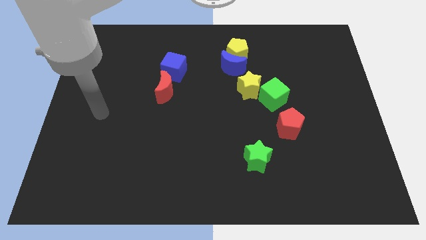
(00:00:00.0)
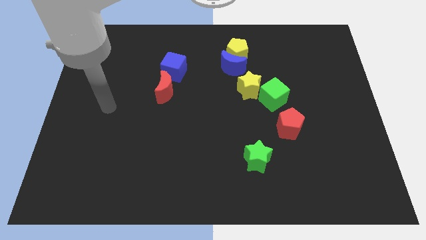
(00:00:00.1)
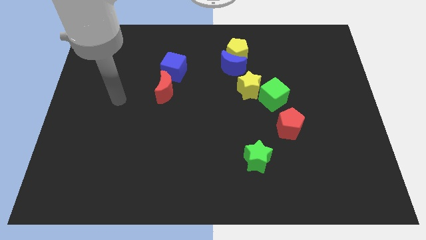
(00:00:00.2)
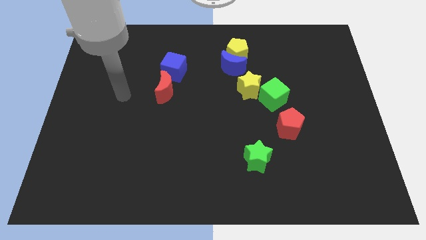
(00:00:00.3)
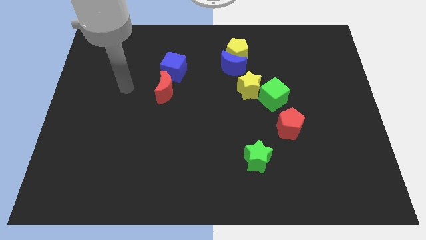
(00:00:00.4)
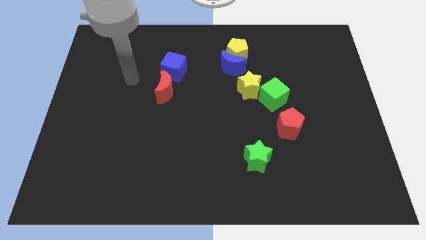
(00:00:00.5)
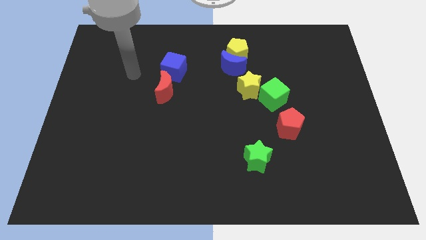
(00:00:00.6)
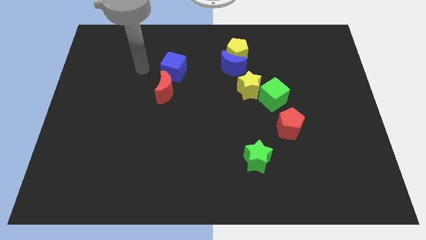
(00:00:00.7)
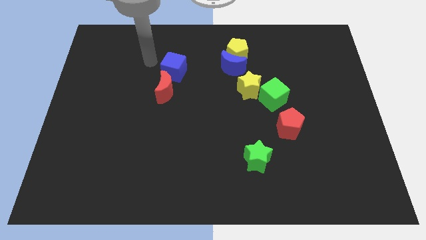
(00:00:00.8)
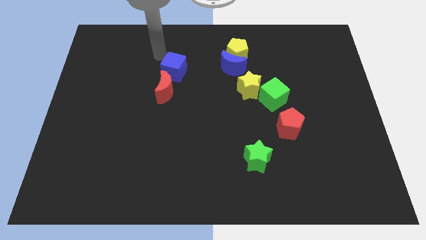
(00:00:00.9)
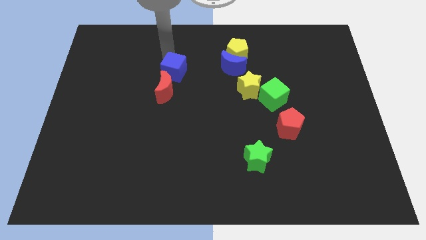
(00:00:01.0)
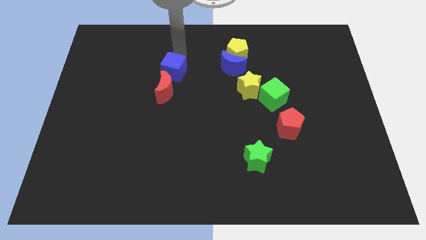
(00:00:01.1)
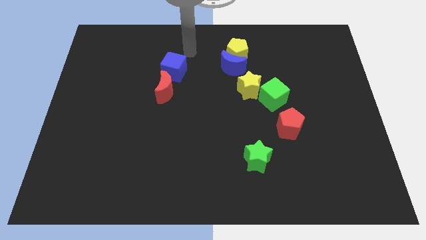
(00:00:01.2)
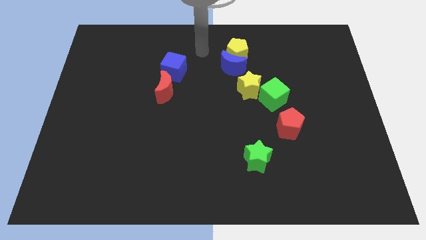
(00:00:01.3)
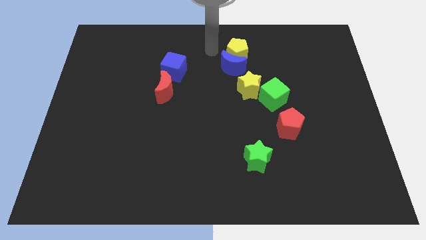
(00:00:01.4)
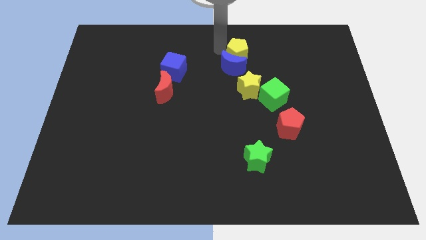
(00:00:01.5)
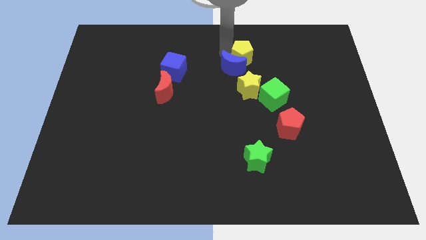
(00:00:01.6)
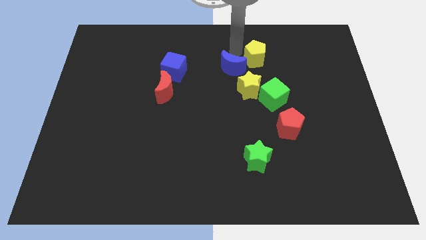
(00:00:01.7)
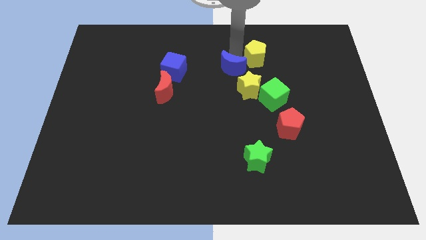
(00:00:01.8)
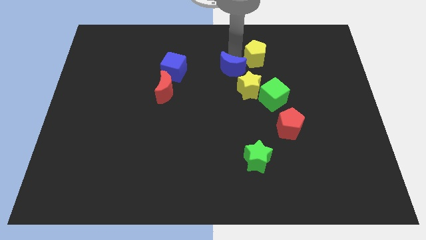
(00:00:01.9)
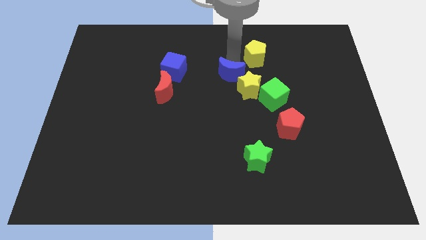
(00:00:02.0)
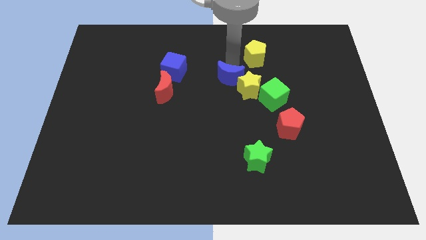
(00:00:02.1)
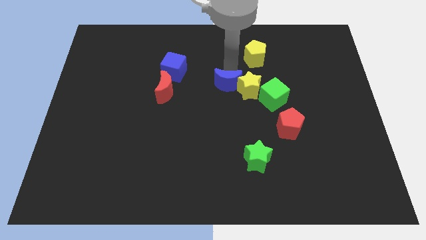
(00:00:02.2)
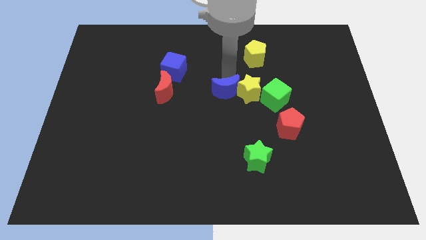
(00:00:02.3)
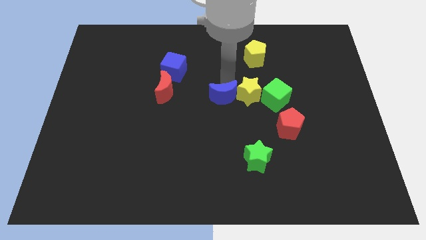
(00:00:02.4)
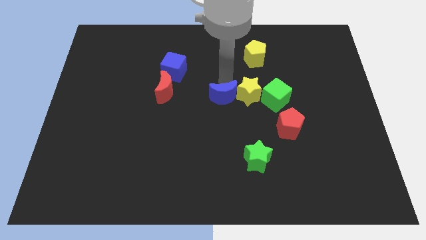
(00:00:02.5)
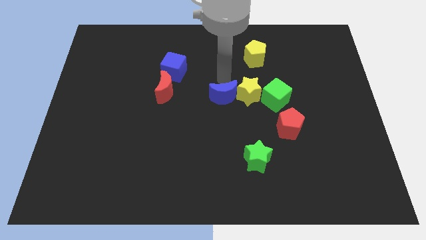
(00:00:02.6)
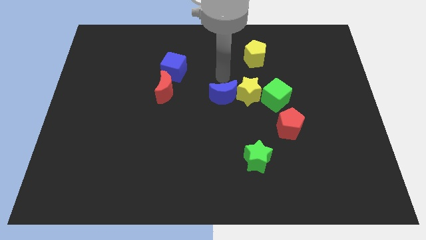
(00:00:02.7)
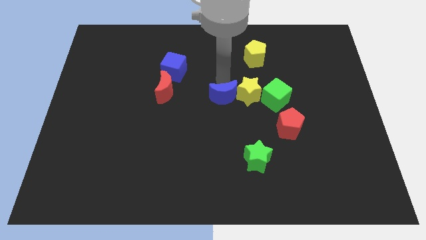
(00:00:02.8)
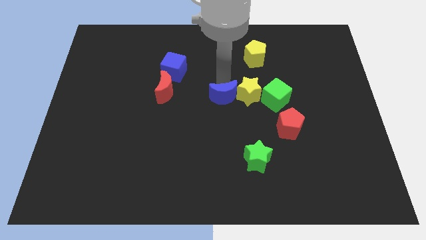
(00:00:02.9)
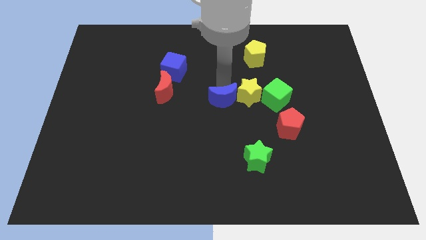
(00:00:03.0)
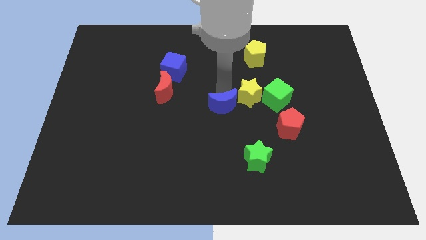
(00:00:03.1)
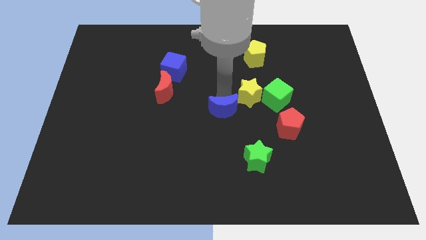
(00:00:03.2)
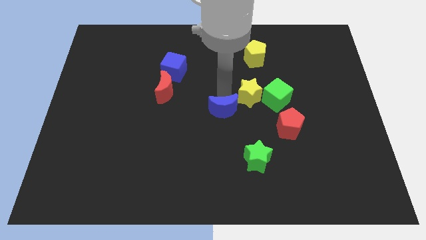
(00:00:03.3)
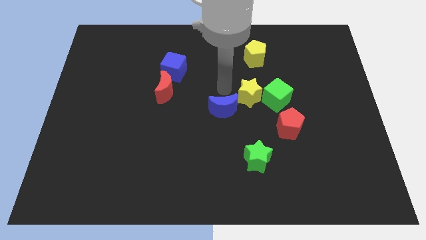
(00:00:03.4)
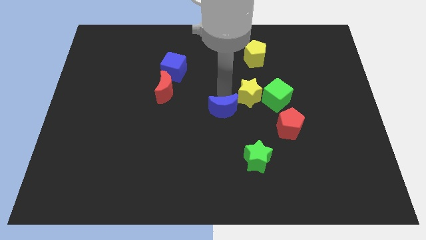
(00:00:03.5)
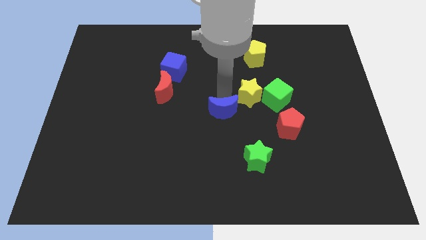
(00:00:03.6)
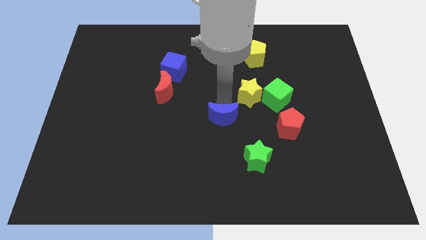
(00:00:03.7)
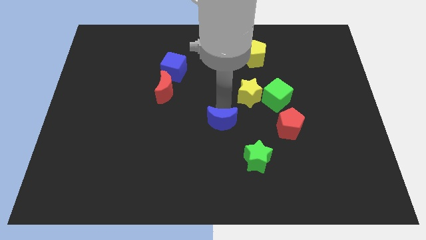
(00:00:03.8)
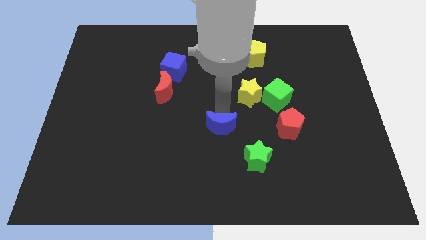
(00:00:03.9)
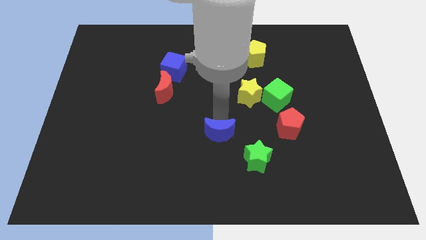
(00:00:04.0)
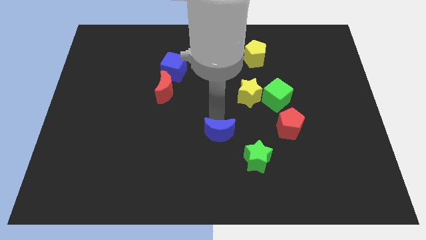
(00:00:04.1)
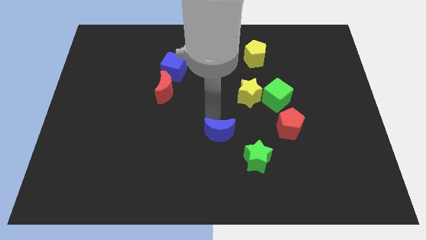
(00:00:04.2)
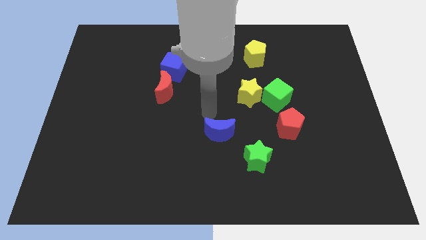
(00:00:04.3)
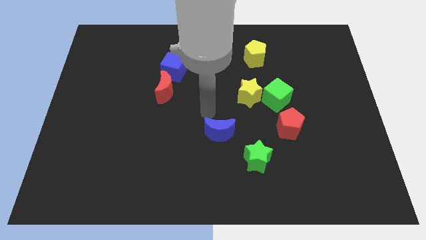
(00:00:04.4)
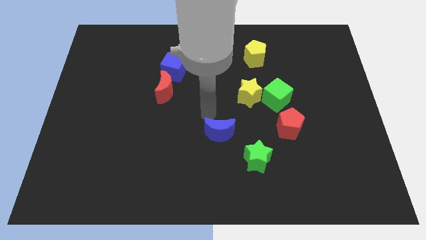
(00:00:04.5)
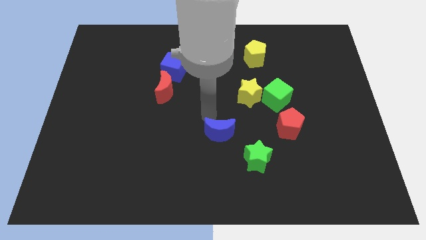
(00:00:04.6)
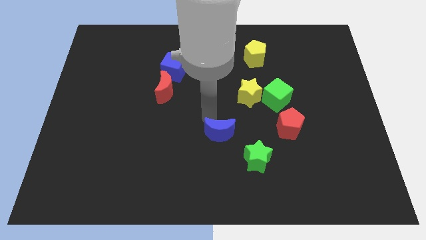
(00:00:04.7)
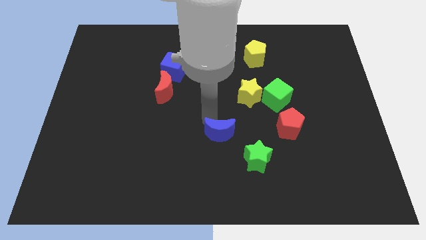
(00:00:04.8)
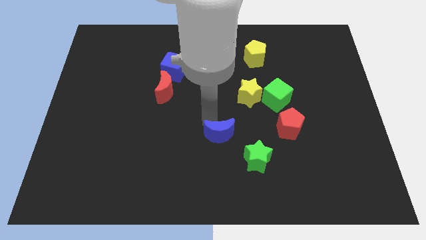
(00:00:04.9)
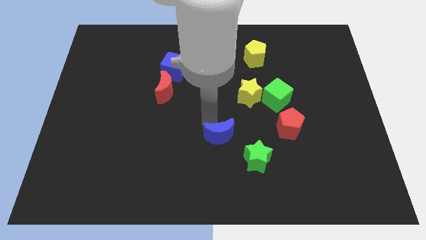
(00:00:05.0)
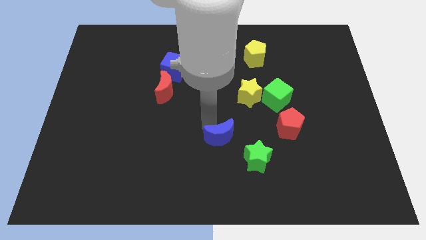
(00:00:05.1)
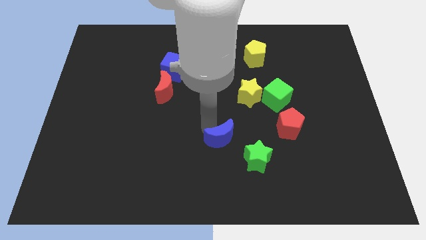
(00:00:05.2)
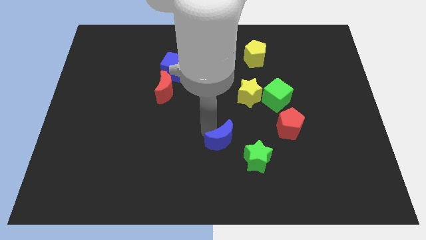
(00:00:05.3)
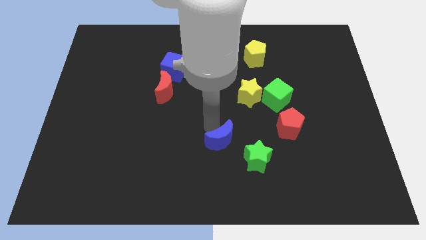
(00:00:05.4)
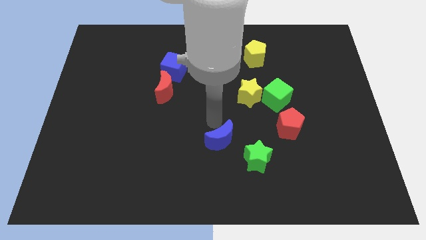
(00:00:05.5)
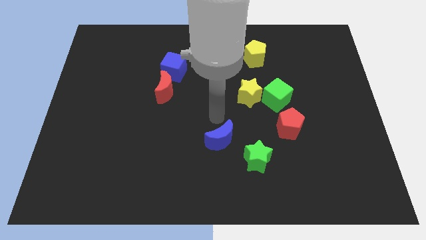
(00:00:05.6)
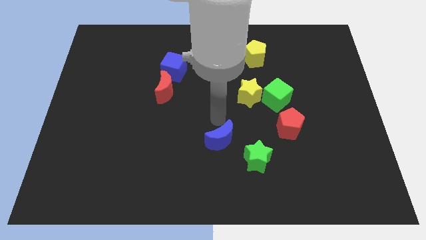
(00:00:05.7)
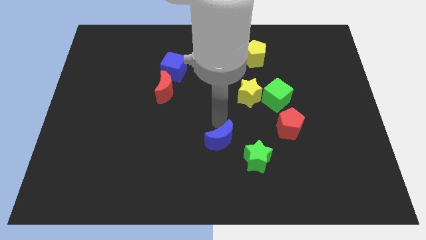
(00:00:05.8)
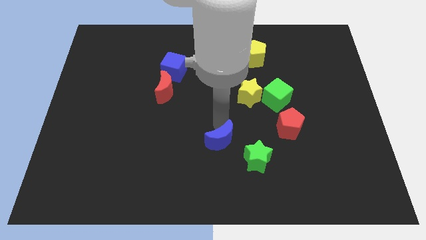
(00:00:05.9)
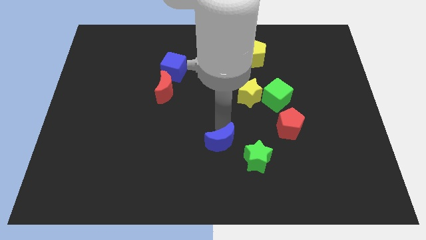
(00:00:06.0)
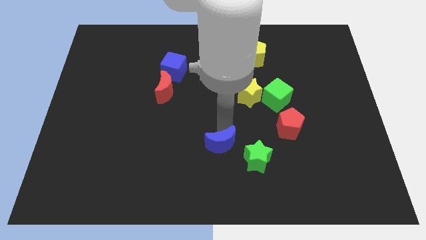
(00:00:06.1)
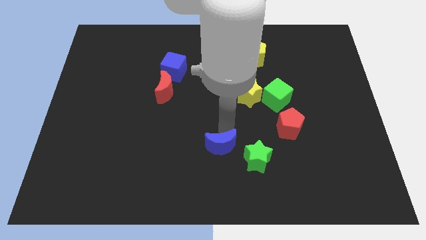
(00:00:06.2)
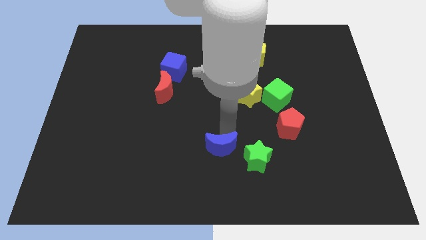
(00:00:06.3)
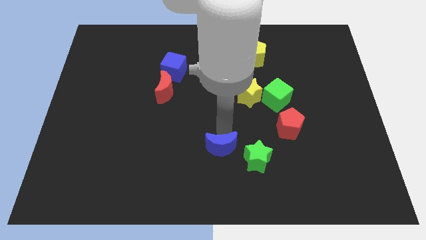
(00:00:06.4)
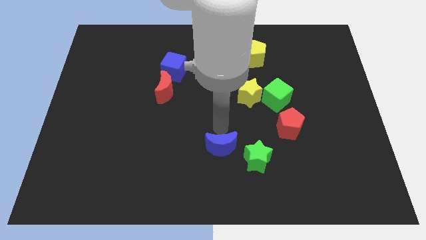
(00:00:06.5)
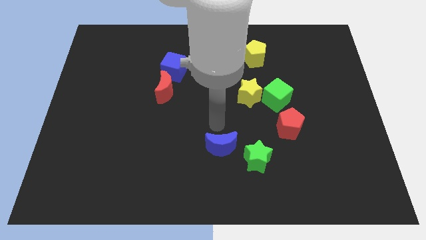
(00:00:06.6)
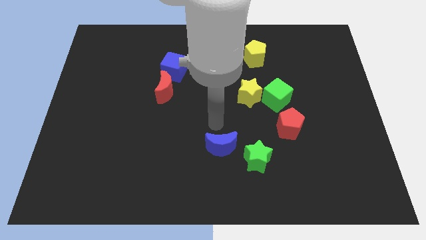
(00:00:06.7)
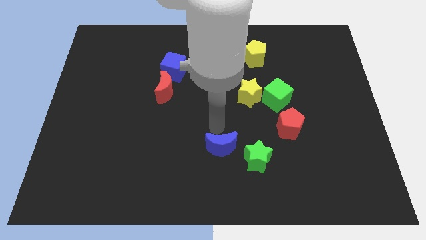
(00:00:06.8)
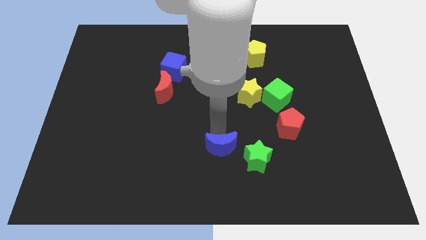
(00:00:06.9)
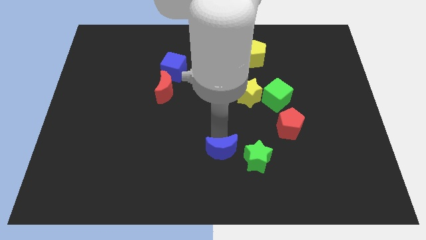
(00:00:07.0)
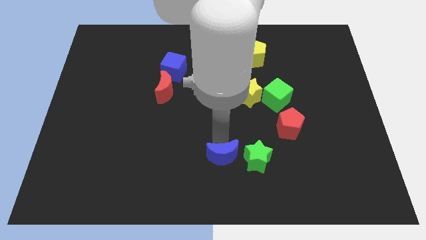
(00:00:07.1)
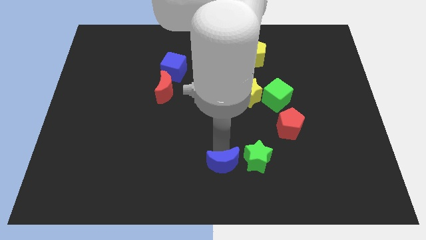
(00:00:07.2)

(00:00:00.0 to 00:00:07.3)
push the blue moon to the bottom left side of the green star
